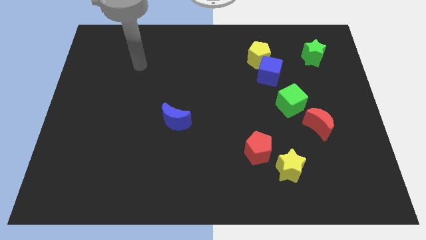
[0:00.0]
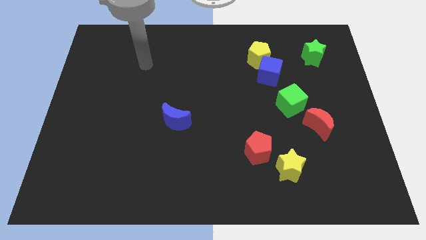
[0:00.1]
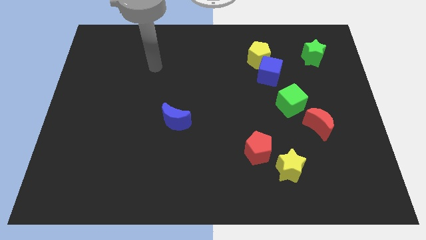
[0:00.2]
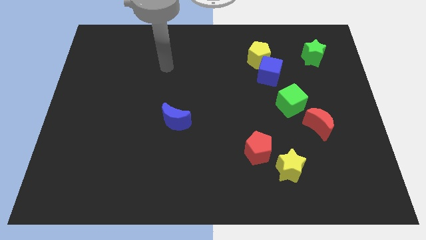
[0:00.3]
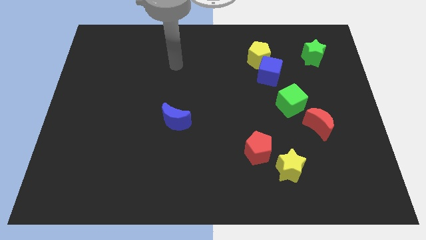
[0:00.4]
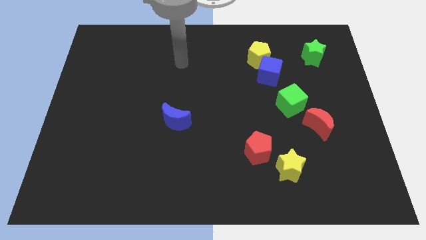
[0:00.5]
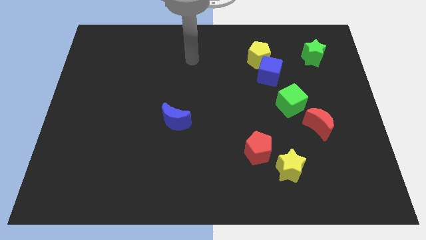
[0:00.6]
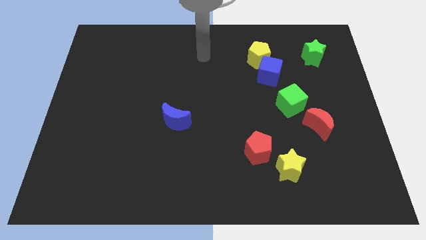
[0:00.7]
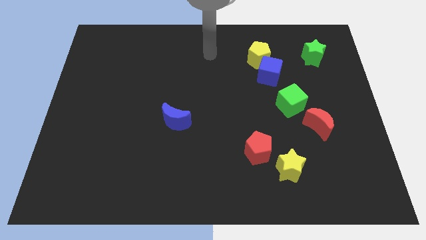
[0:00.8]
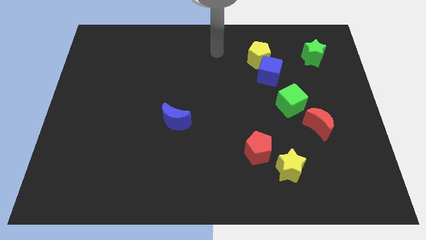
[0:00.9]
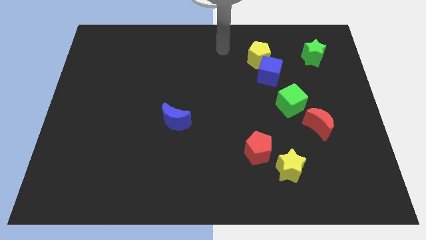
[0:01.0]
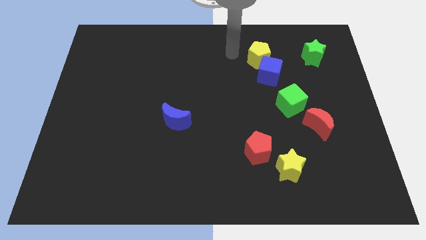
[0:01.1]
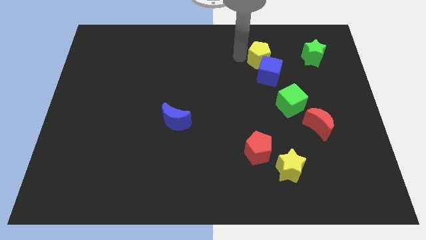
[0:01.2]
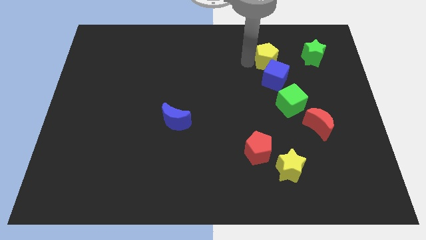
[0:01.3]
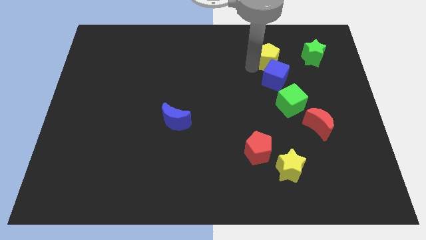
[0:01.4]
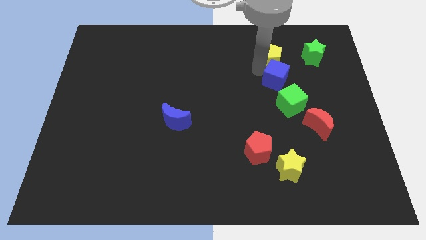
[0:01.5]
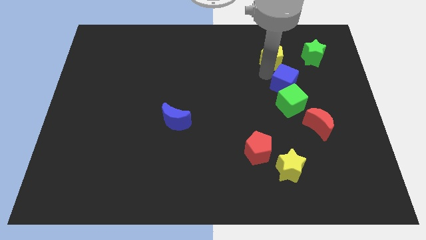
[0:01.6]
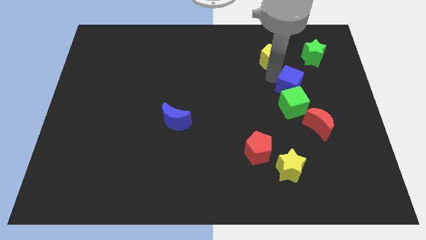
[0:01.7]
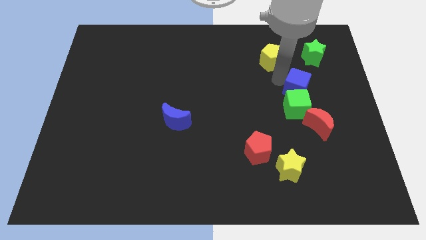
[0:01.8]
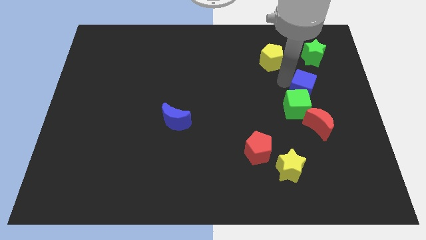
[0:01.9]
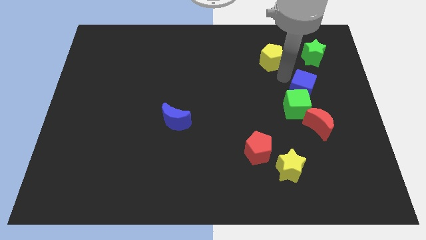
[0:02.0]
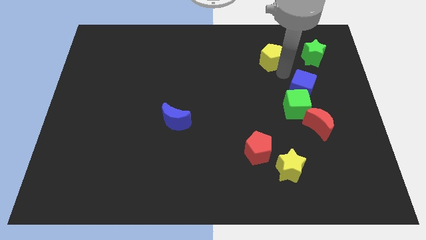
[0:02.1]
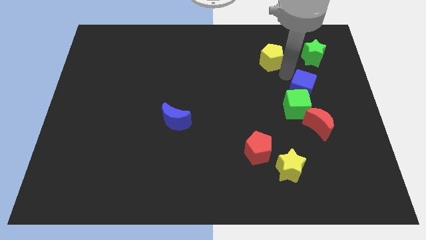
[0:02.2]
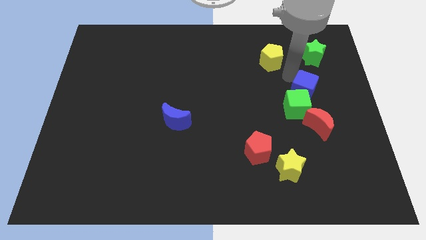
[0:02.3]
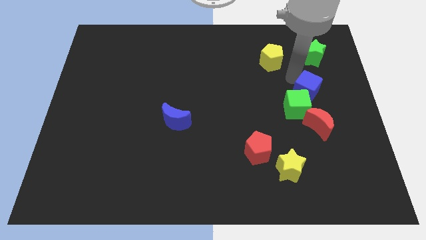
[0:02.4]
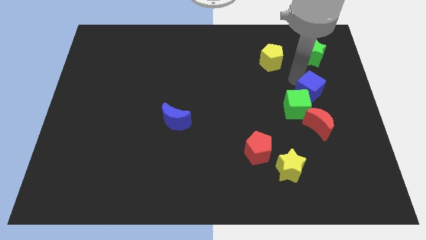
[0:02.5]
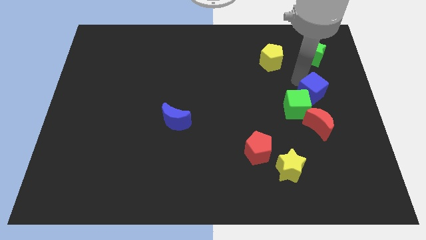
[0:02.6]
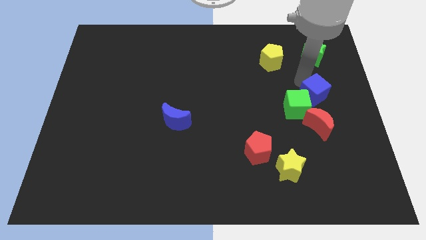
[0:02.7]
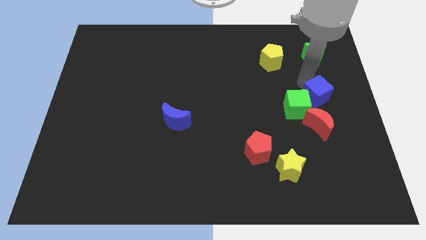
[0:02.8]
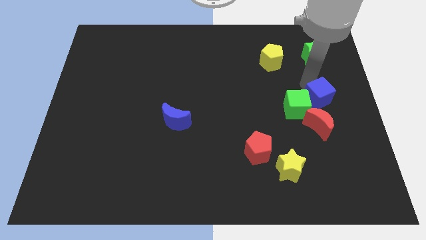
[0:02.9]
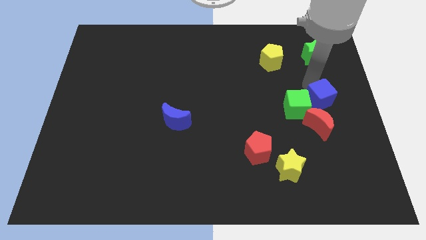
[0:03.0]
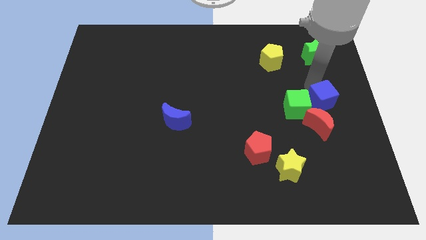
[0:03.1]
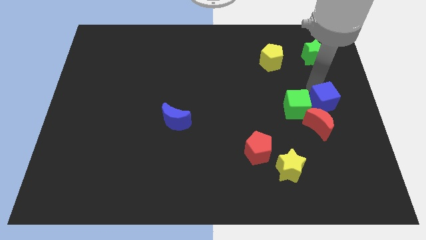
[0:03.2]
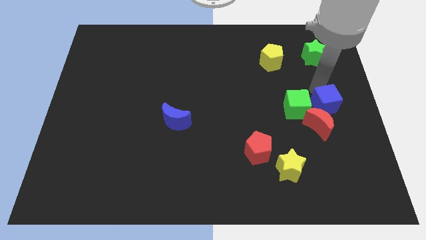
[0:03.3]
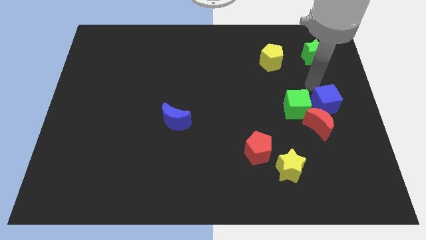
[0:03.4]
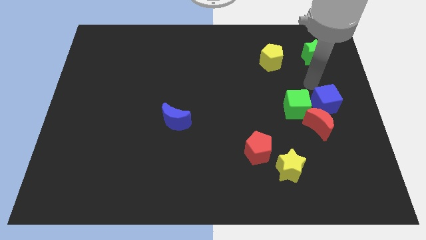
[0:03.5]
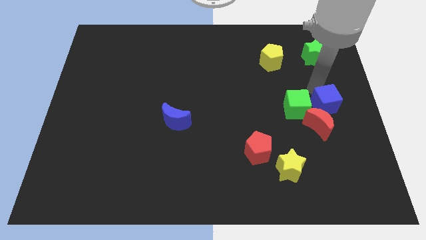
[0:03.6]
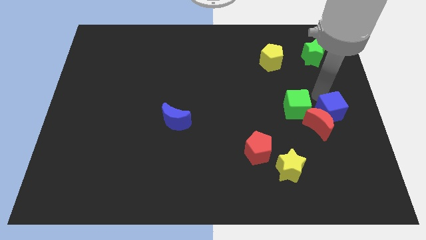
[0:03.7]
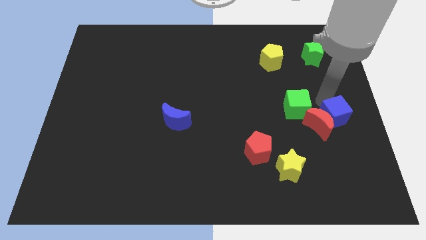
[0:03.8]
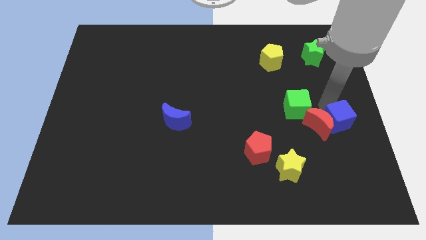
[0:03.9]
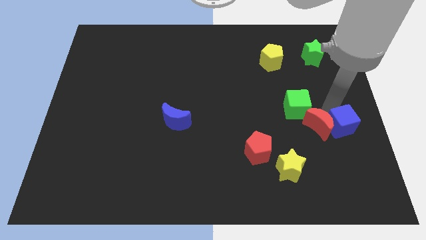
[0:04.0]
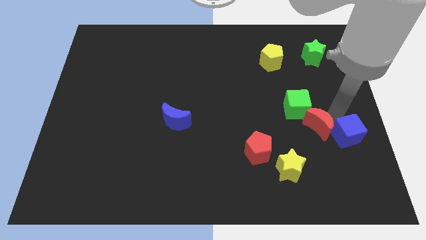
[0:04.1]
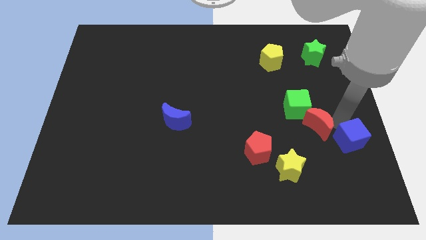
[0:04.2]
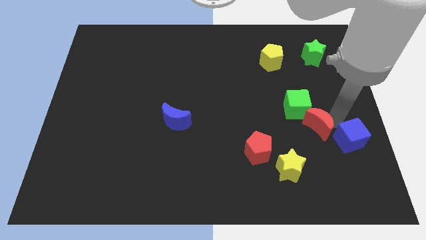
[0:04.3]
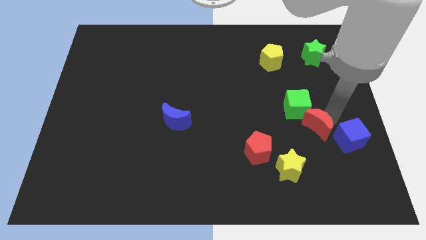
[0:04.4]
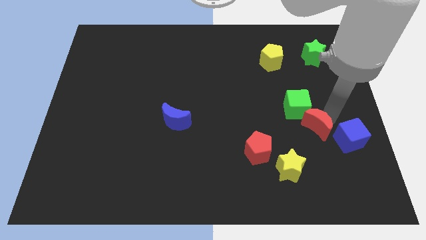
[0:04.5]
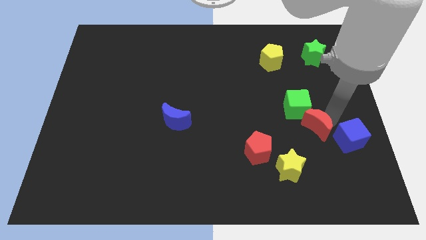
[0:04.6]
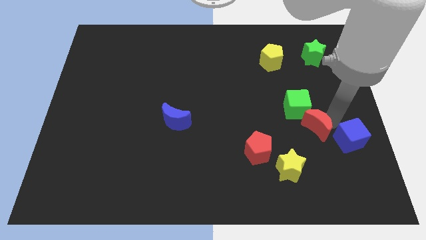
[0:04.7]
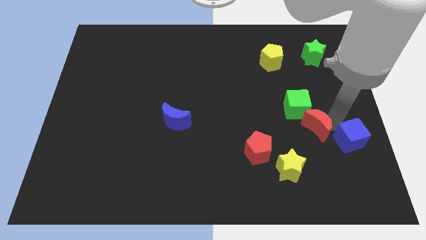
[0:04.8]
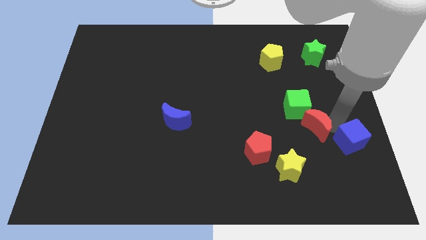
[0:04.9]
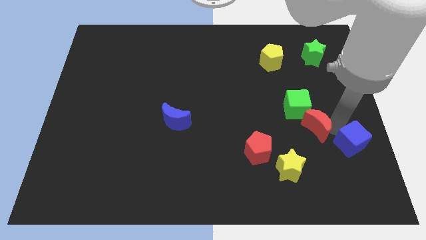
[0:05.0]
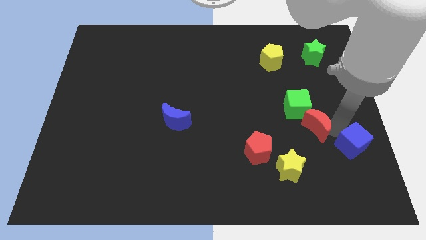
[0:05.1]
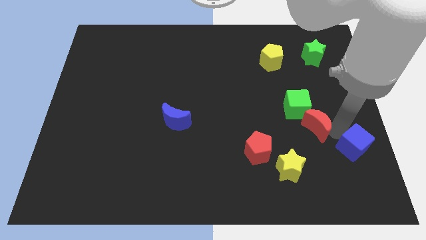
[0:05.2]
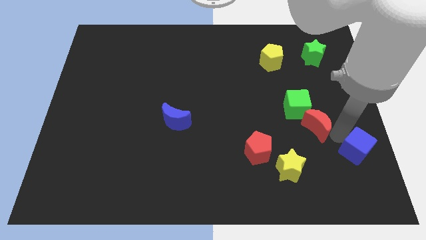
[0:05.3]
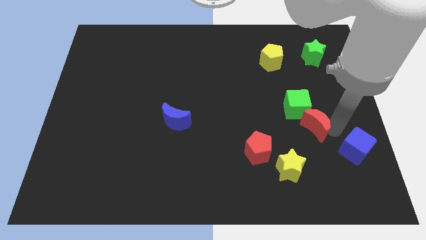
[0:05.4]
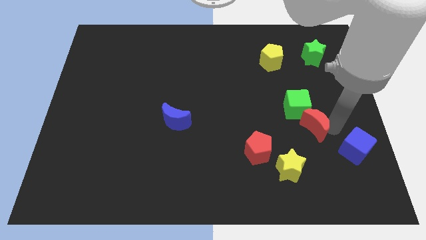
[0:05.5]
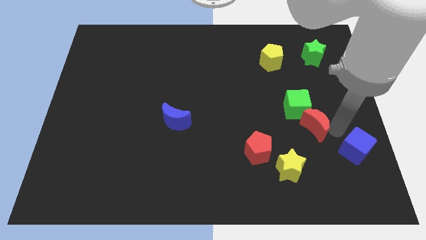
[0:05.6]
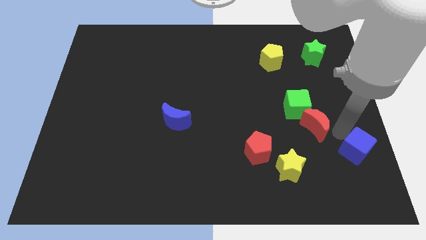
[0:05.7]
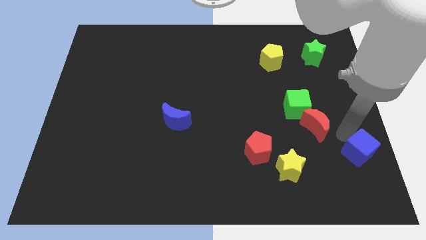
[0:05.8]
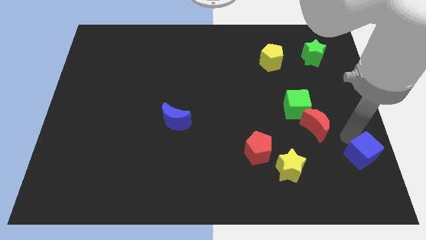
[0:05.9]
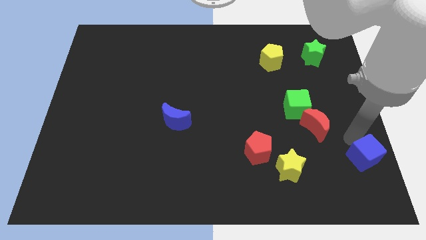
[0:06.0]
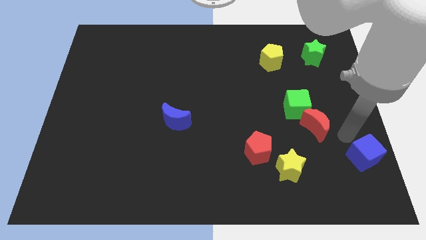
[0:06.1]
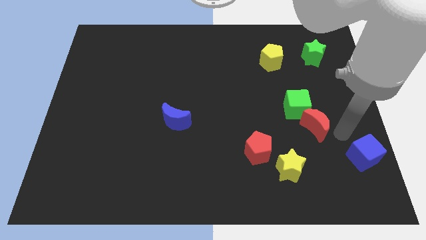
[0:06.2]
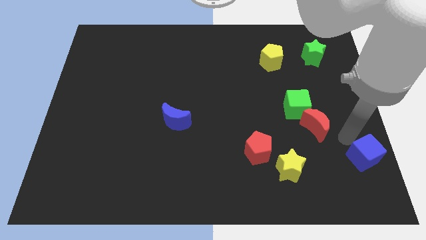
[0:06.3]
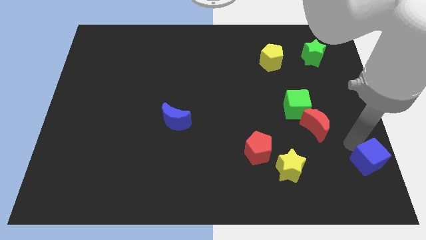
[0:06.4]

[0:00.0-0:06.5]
push the blue cube to the bottom right of the board
